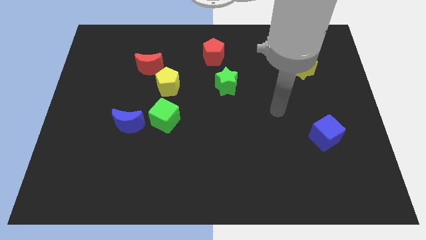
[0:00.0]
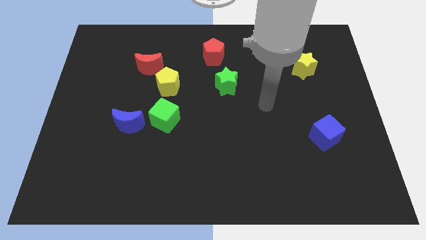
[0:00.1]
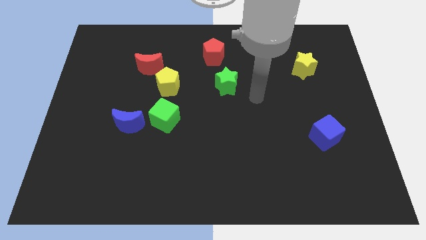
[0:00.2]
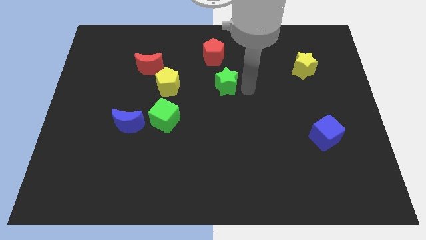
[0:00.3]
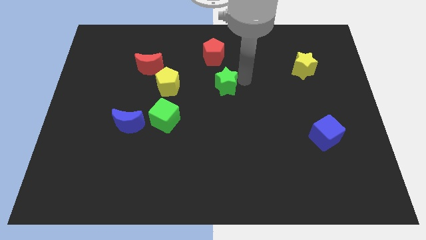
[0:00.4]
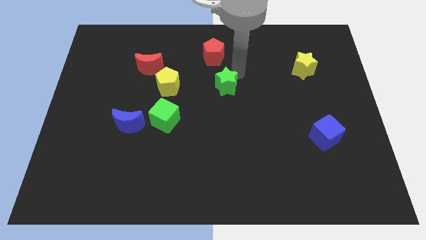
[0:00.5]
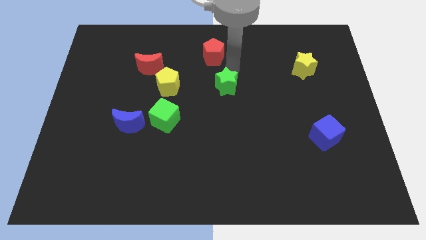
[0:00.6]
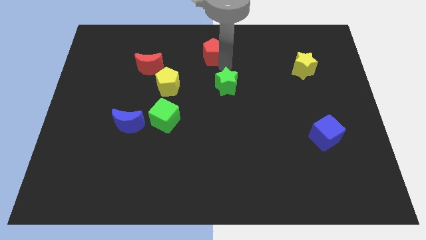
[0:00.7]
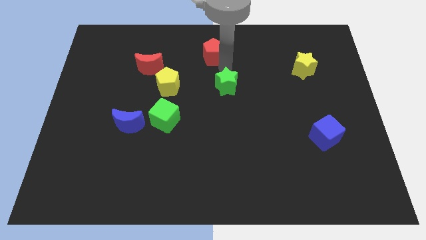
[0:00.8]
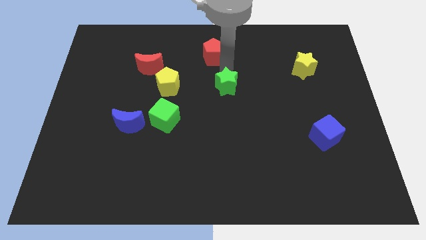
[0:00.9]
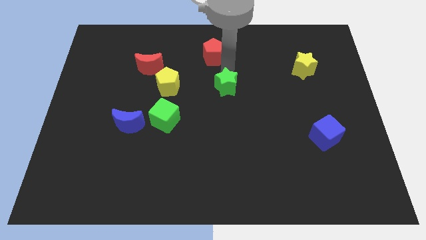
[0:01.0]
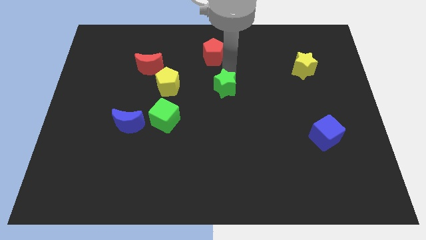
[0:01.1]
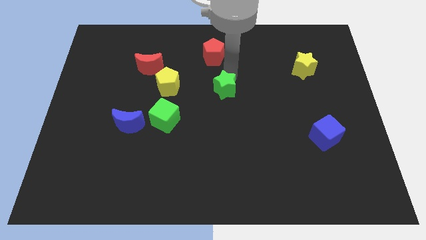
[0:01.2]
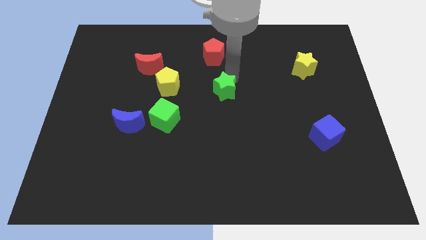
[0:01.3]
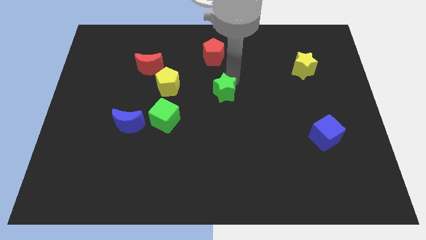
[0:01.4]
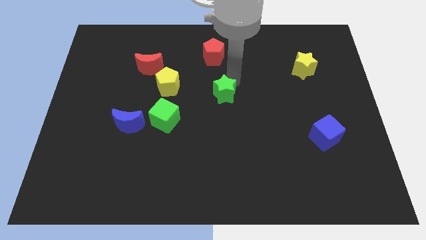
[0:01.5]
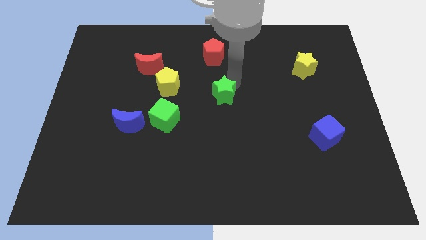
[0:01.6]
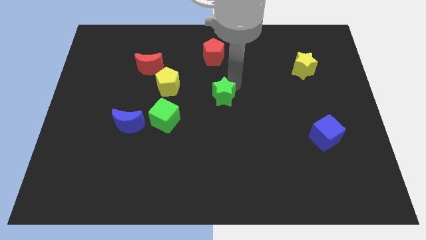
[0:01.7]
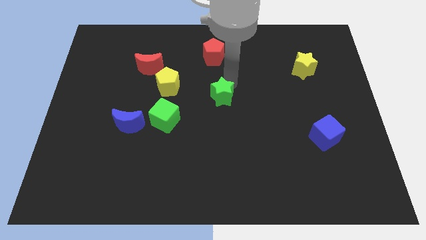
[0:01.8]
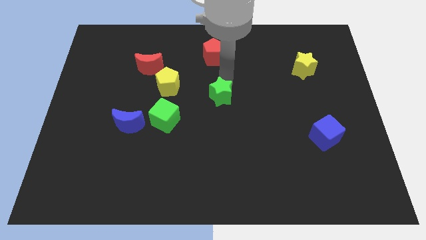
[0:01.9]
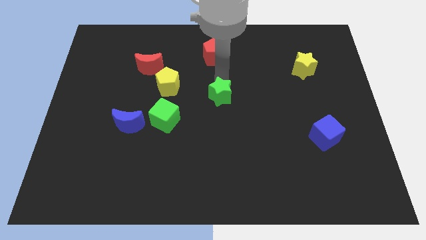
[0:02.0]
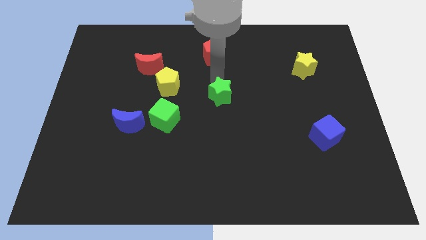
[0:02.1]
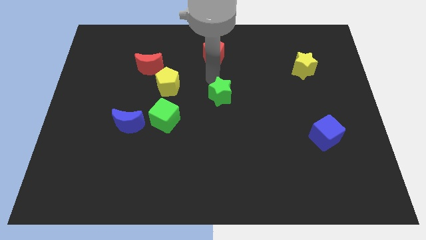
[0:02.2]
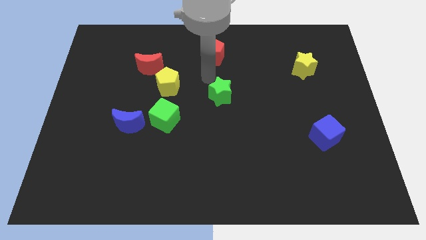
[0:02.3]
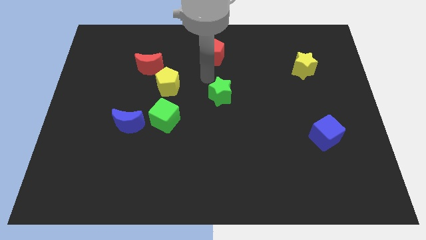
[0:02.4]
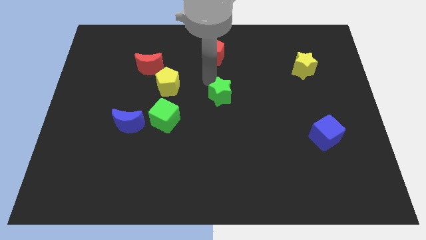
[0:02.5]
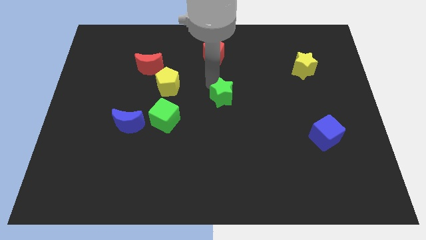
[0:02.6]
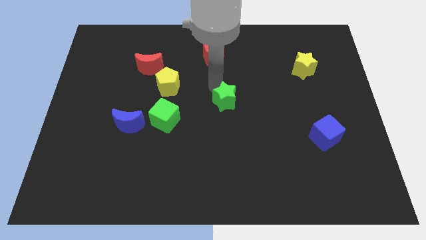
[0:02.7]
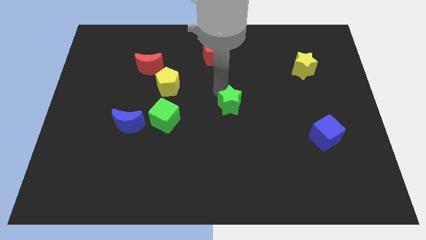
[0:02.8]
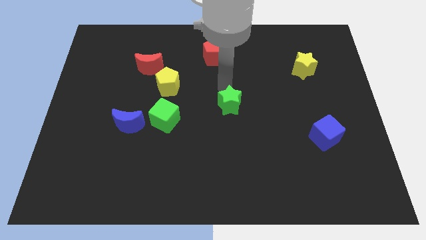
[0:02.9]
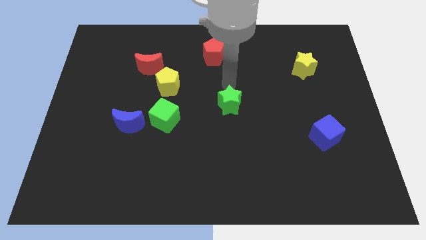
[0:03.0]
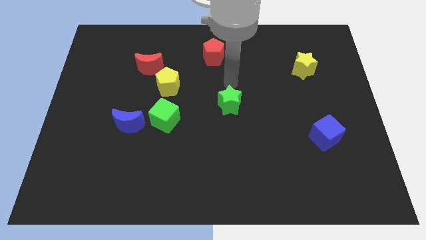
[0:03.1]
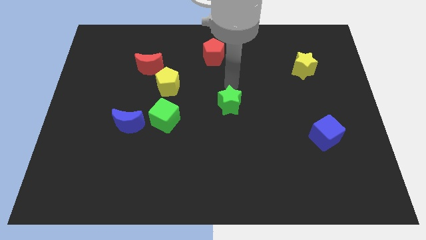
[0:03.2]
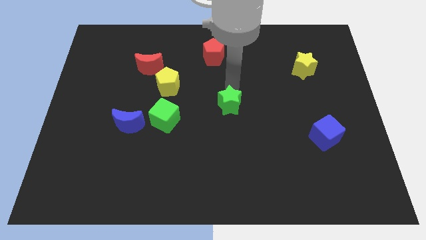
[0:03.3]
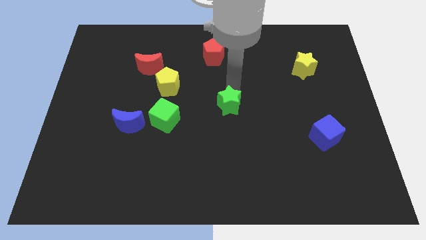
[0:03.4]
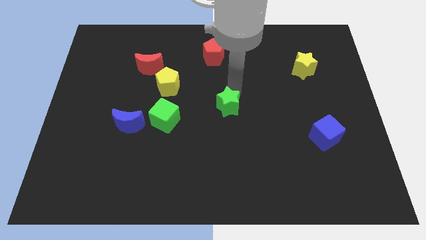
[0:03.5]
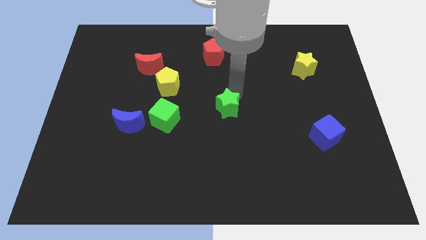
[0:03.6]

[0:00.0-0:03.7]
slightly push the green star down

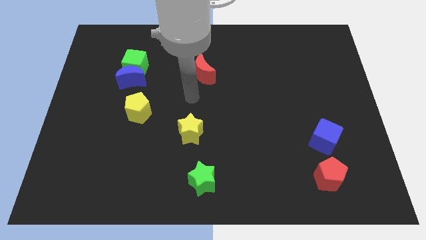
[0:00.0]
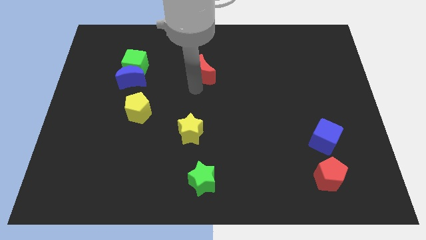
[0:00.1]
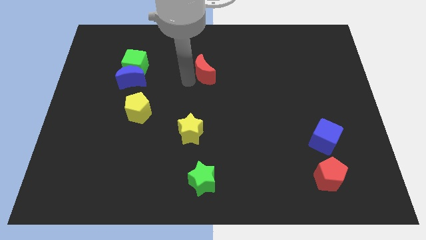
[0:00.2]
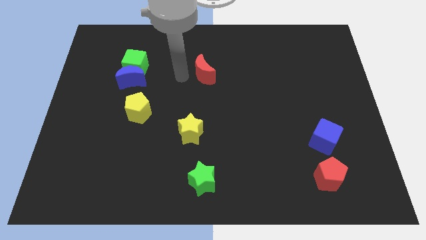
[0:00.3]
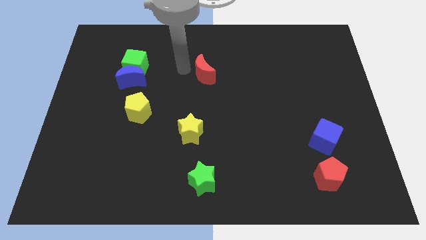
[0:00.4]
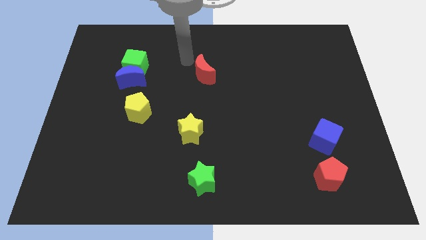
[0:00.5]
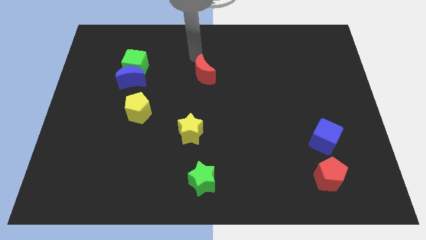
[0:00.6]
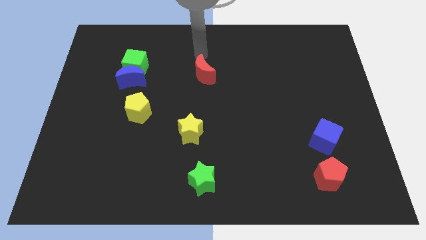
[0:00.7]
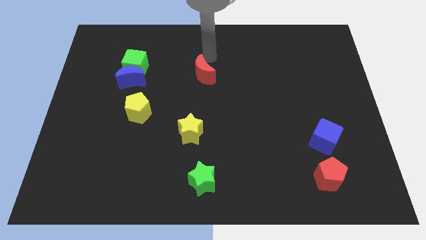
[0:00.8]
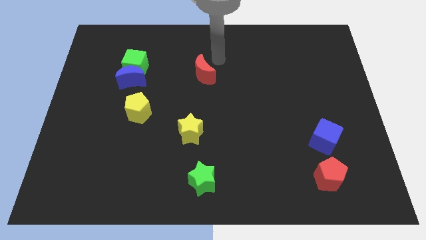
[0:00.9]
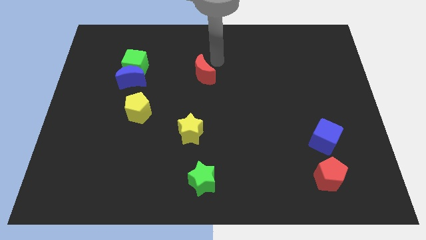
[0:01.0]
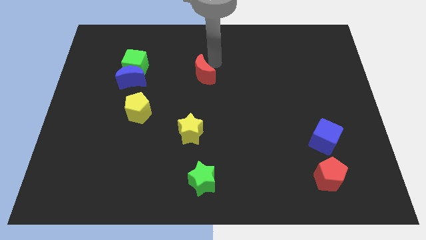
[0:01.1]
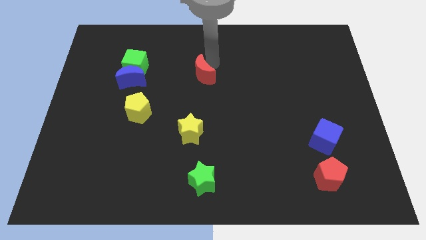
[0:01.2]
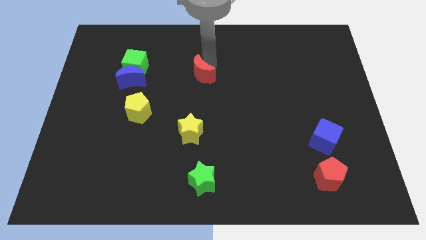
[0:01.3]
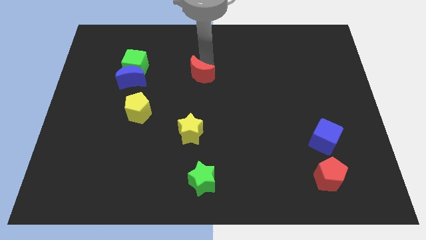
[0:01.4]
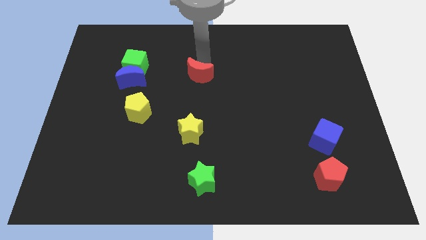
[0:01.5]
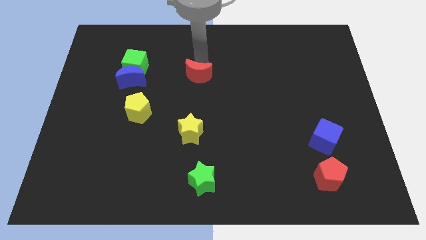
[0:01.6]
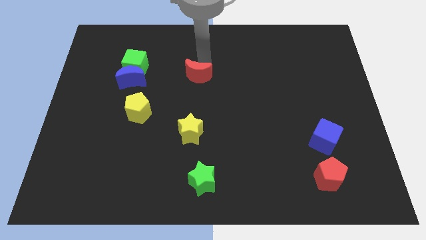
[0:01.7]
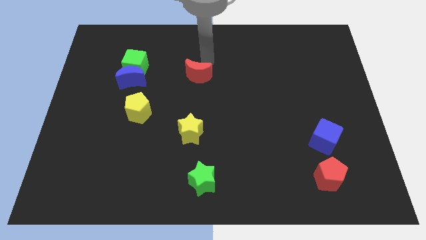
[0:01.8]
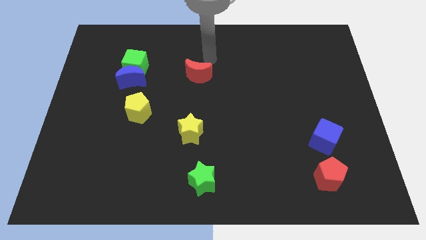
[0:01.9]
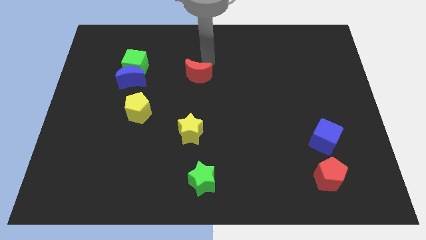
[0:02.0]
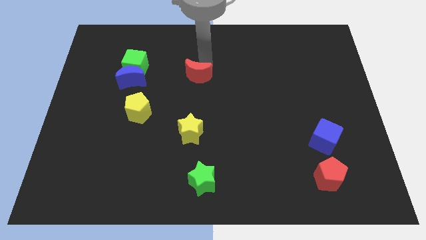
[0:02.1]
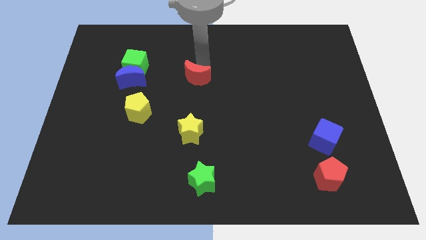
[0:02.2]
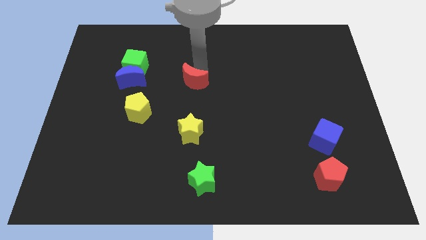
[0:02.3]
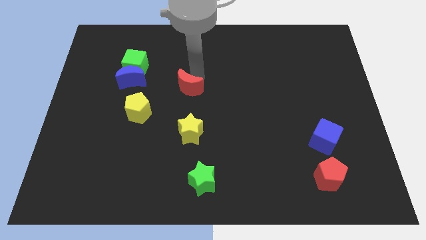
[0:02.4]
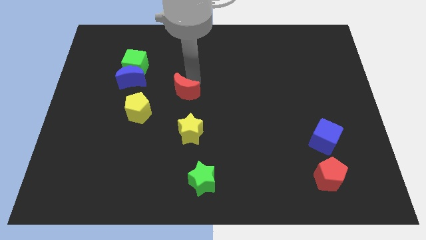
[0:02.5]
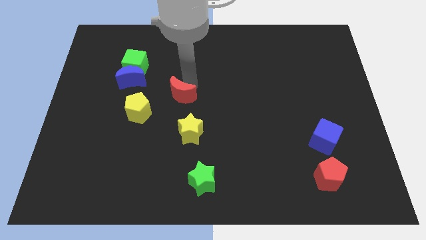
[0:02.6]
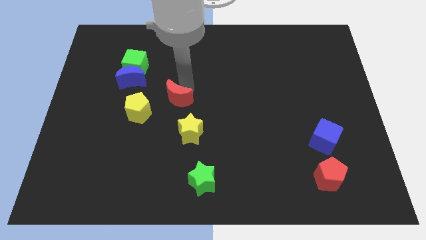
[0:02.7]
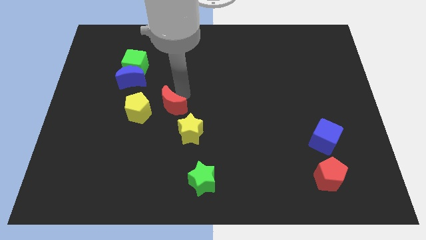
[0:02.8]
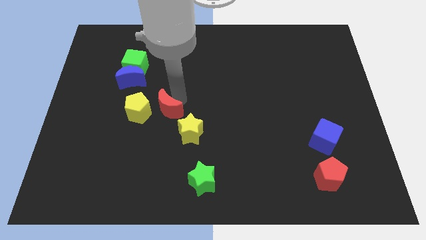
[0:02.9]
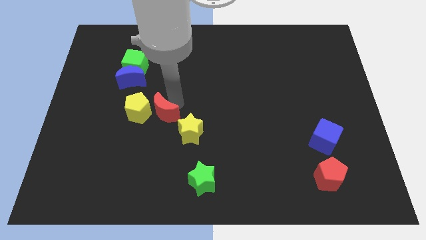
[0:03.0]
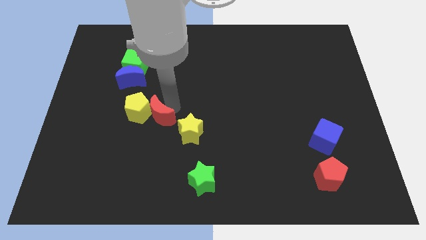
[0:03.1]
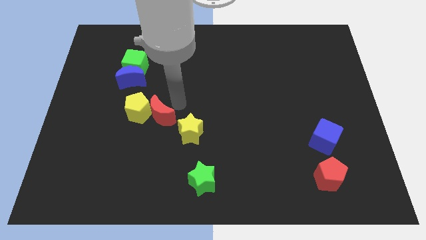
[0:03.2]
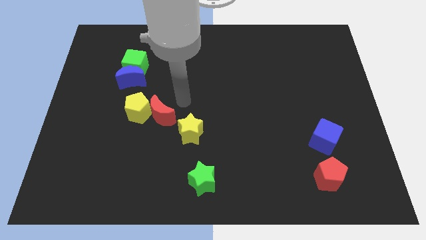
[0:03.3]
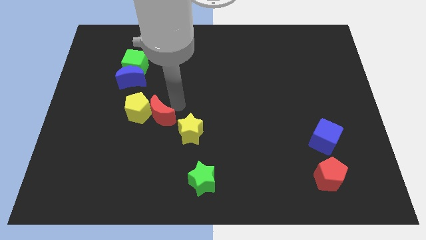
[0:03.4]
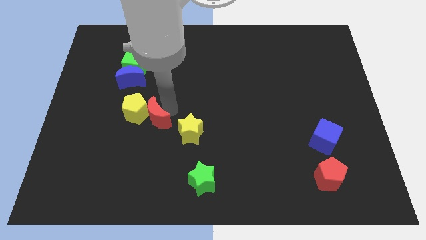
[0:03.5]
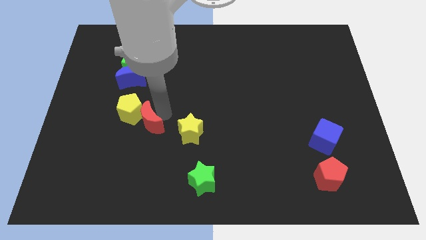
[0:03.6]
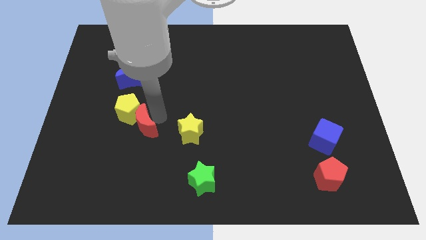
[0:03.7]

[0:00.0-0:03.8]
push the red moon down and to the left diagonally

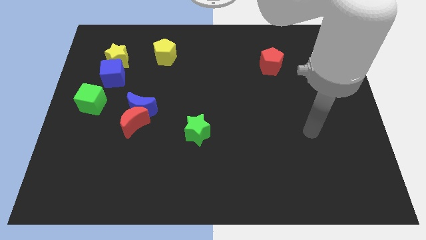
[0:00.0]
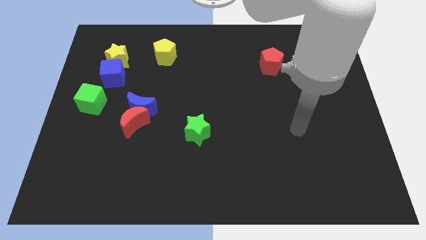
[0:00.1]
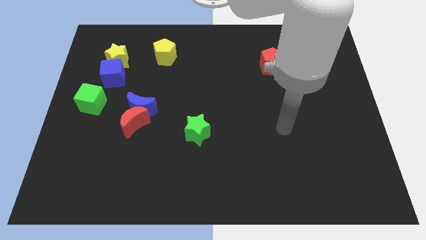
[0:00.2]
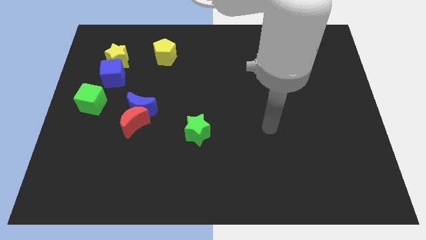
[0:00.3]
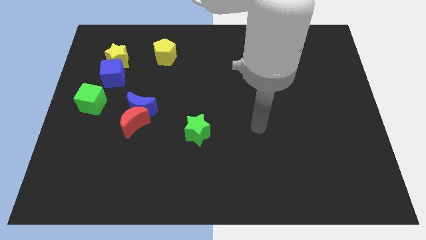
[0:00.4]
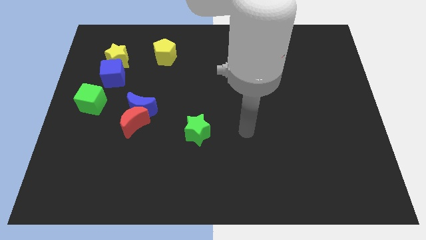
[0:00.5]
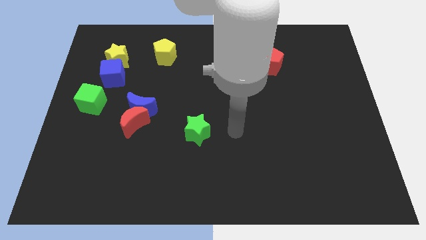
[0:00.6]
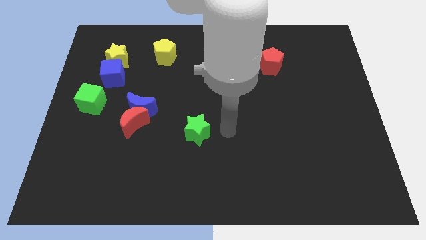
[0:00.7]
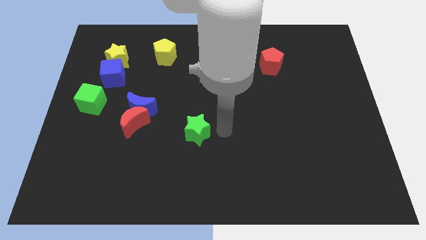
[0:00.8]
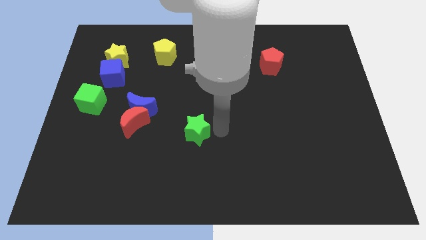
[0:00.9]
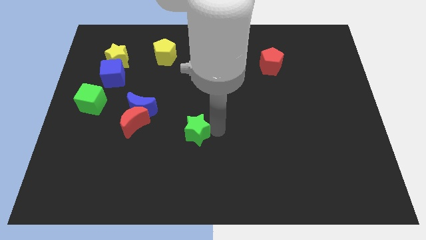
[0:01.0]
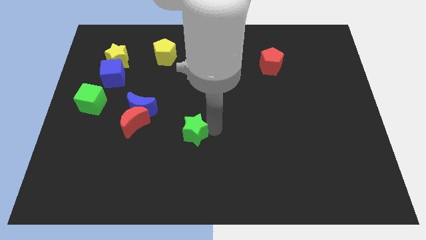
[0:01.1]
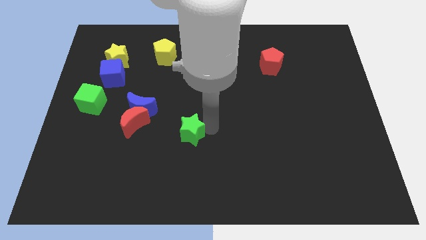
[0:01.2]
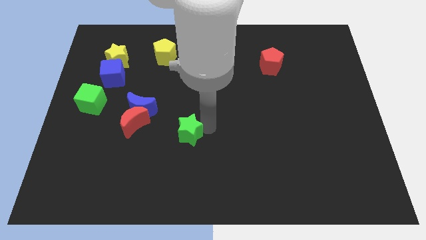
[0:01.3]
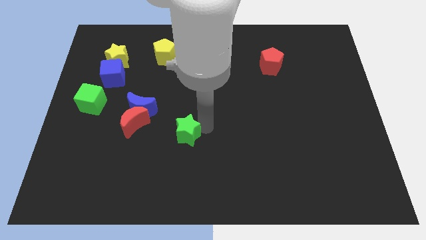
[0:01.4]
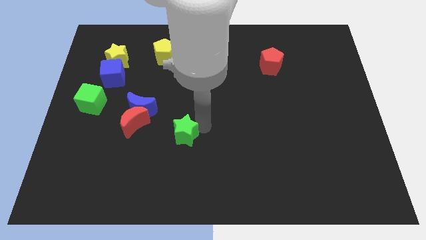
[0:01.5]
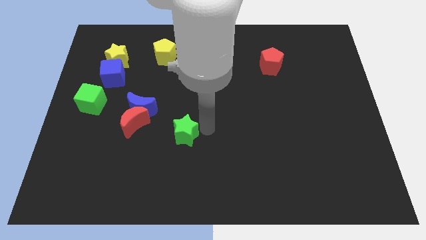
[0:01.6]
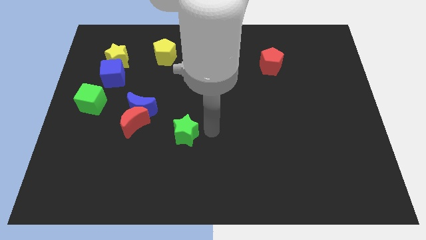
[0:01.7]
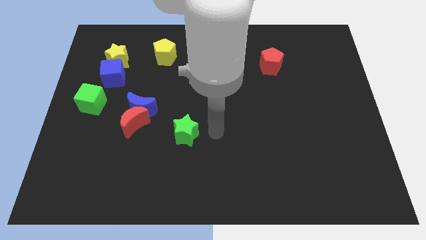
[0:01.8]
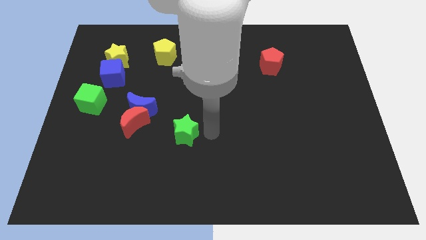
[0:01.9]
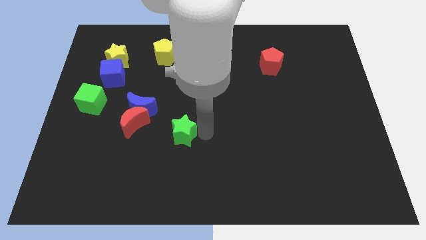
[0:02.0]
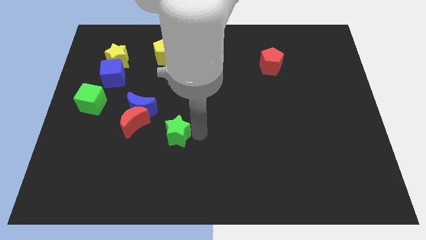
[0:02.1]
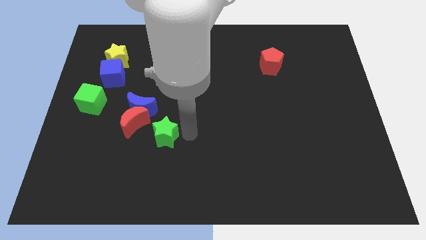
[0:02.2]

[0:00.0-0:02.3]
slightly push the green star left
